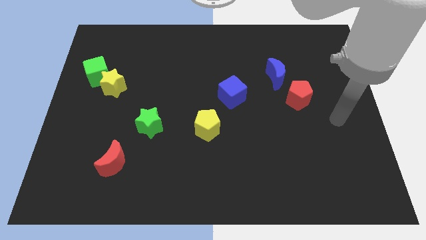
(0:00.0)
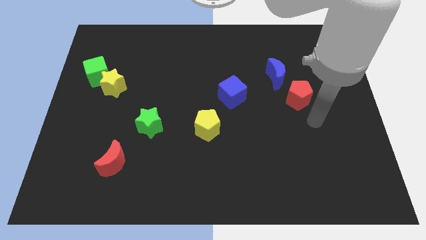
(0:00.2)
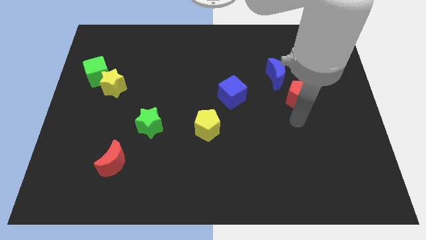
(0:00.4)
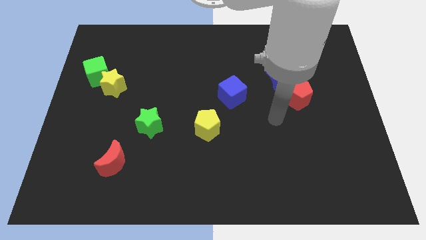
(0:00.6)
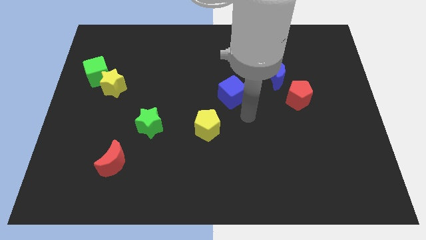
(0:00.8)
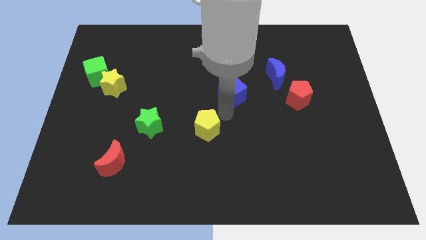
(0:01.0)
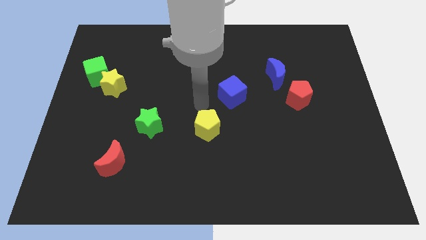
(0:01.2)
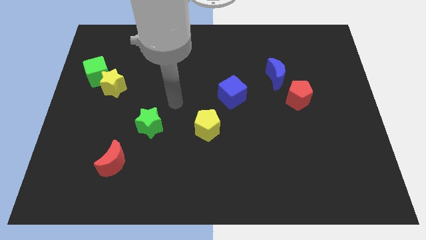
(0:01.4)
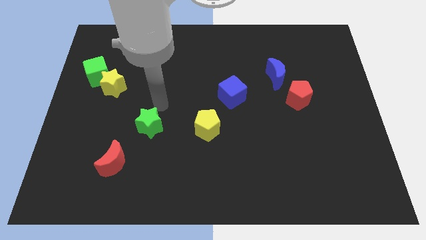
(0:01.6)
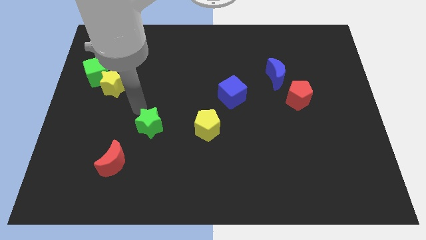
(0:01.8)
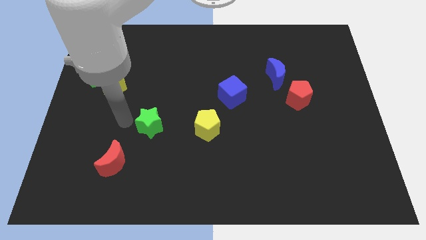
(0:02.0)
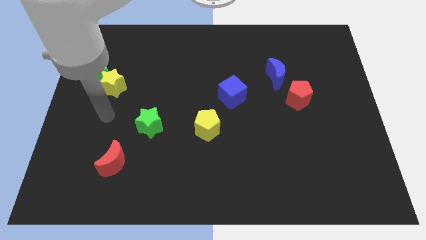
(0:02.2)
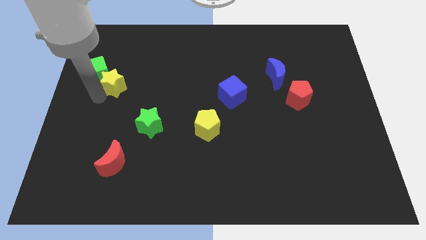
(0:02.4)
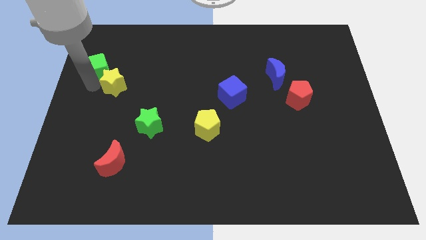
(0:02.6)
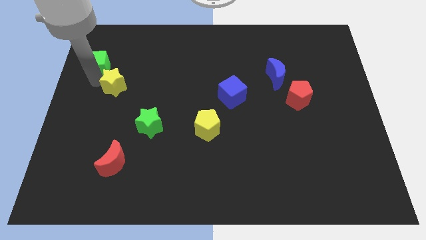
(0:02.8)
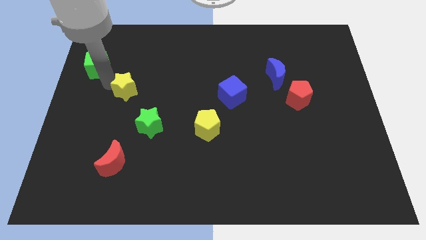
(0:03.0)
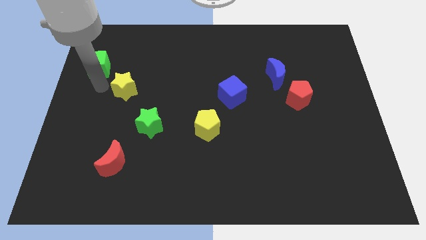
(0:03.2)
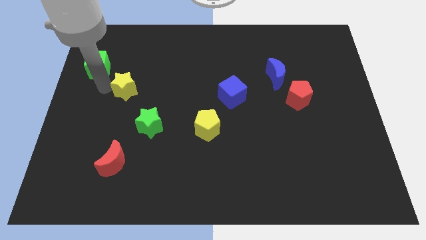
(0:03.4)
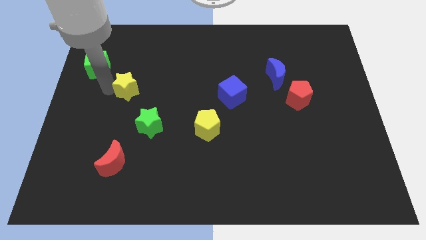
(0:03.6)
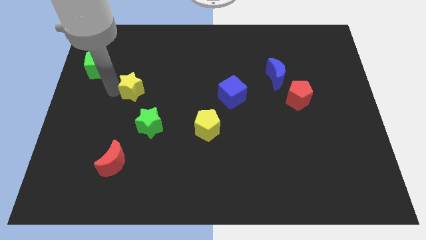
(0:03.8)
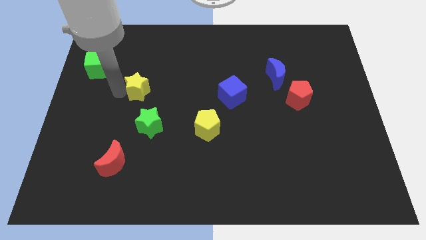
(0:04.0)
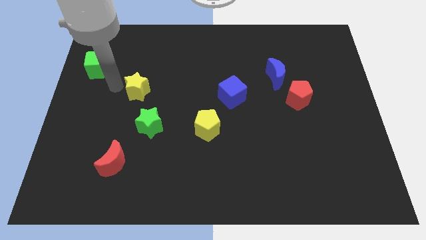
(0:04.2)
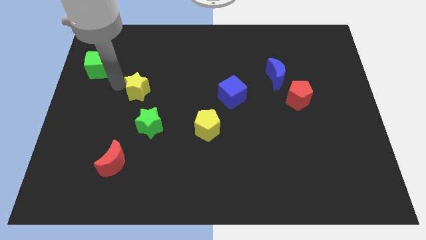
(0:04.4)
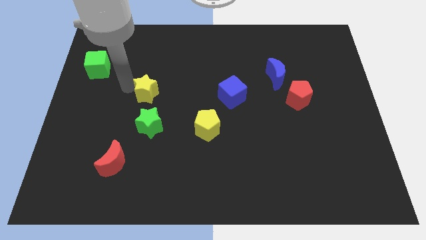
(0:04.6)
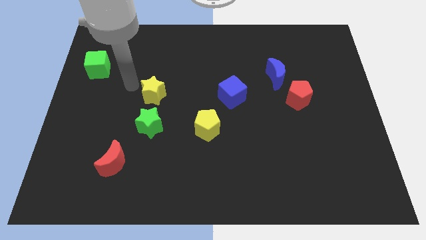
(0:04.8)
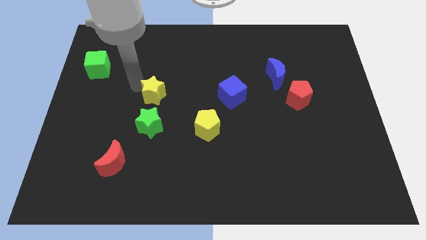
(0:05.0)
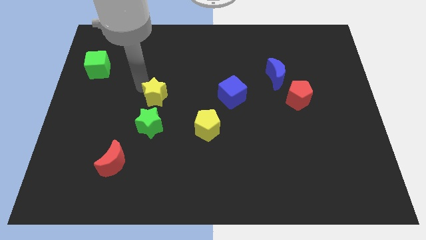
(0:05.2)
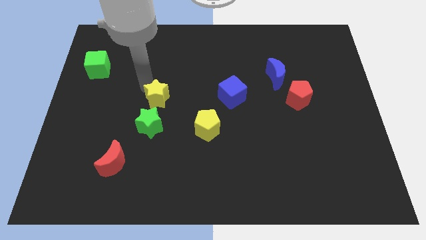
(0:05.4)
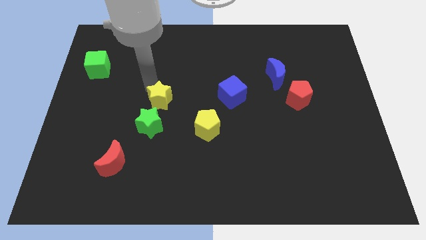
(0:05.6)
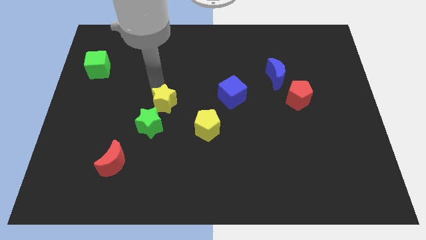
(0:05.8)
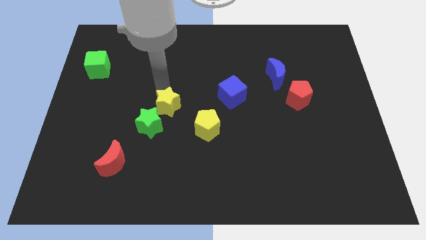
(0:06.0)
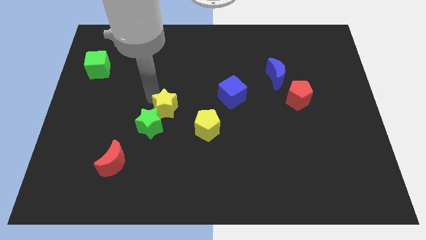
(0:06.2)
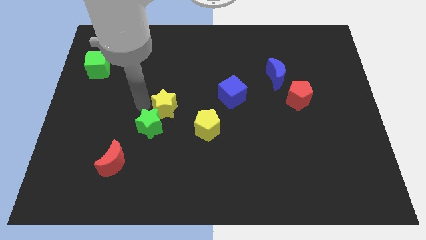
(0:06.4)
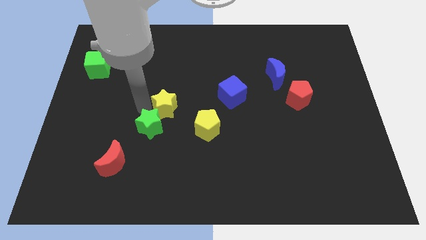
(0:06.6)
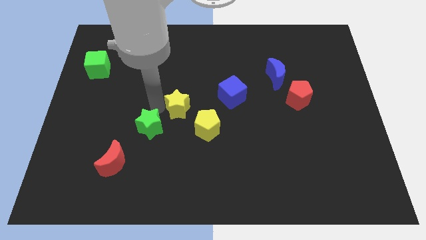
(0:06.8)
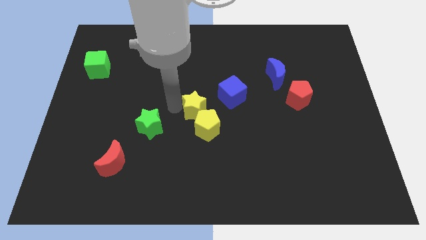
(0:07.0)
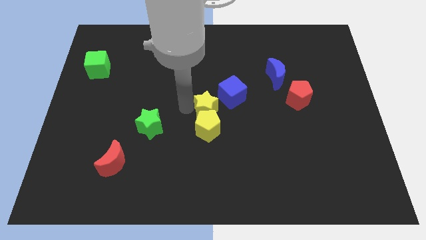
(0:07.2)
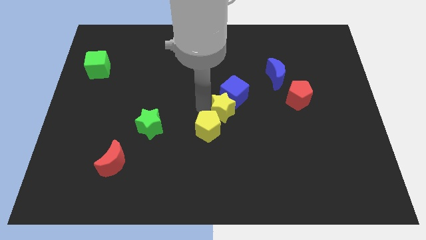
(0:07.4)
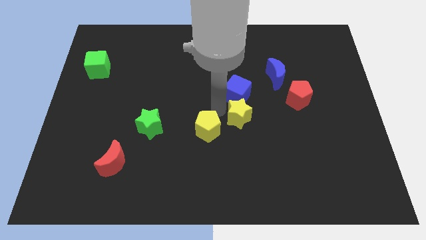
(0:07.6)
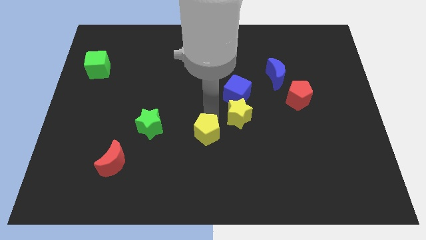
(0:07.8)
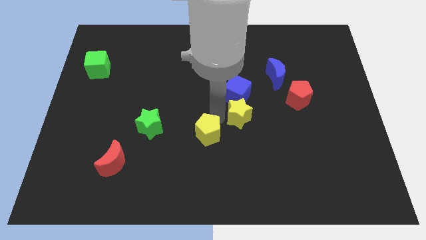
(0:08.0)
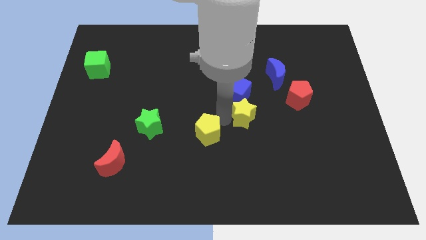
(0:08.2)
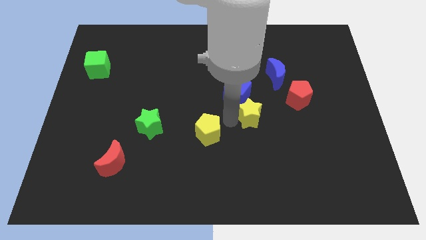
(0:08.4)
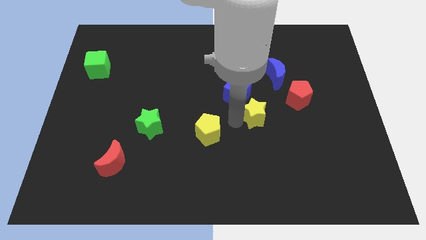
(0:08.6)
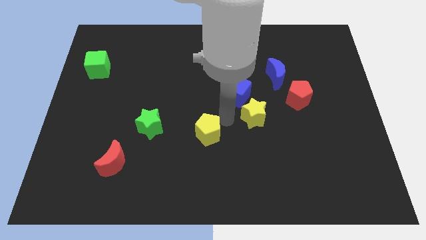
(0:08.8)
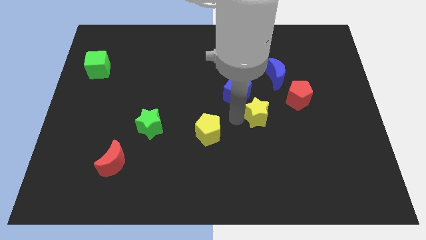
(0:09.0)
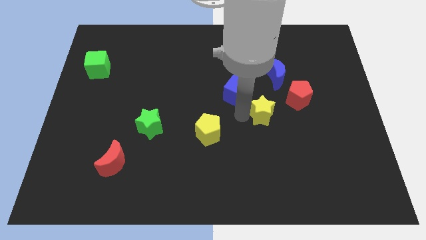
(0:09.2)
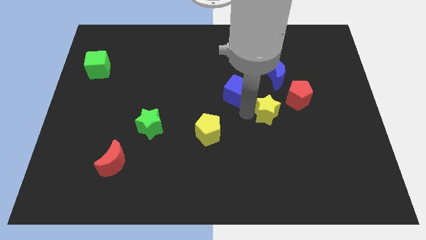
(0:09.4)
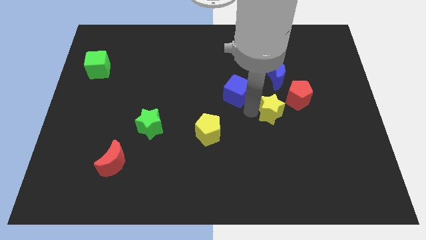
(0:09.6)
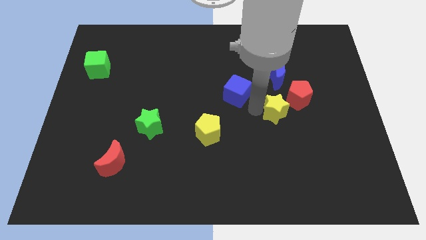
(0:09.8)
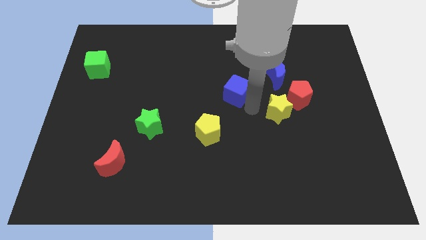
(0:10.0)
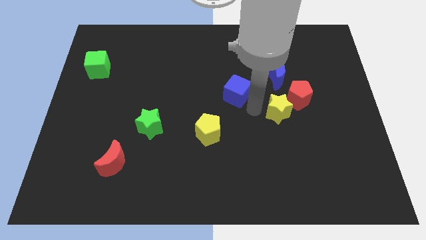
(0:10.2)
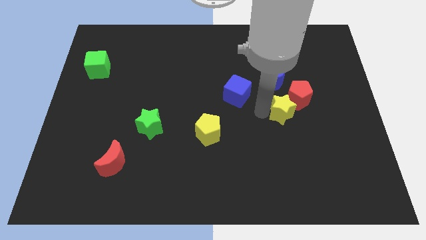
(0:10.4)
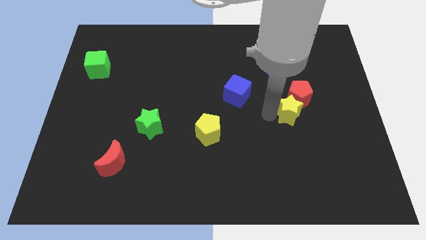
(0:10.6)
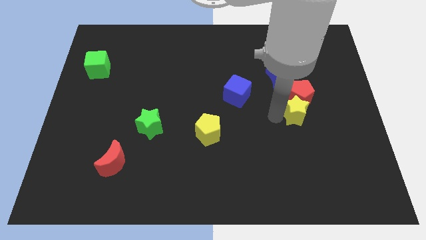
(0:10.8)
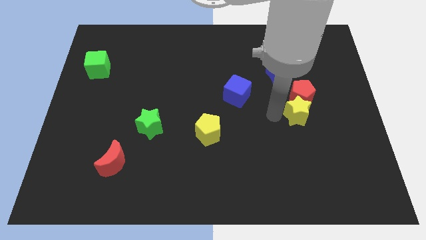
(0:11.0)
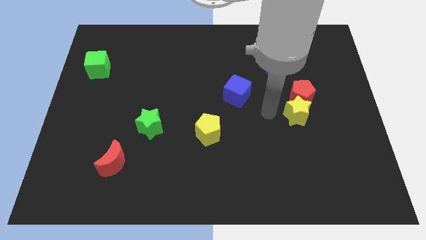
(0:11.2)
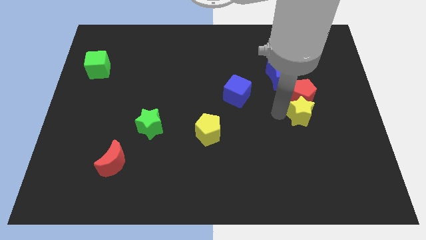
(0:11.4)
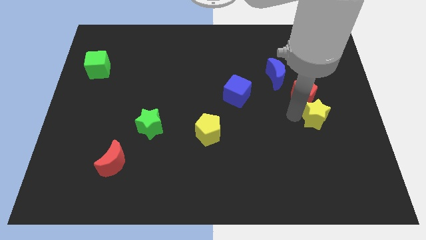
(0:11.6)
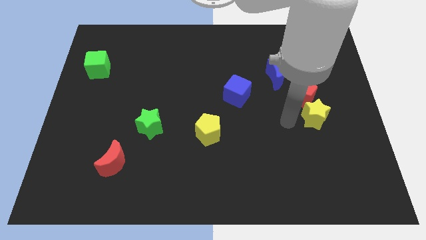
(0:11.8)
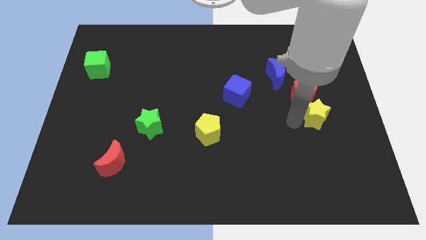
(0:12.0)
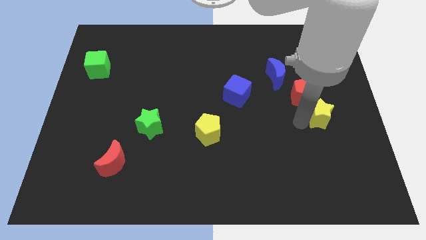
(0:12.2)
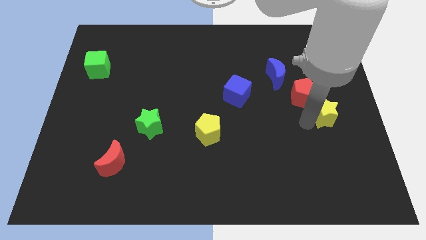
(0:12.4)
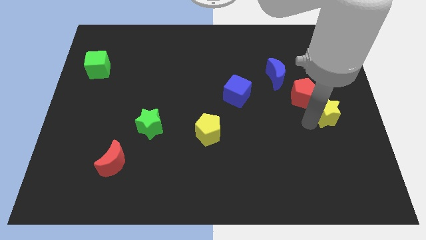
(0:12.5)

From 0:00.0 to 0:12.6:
push the yellow star to the right side of the board
